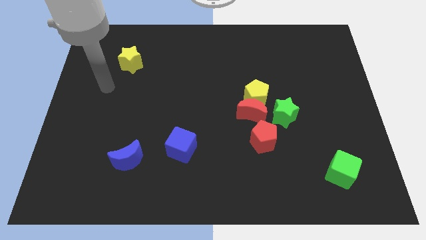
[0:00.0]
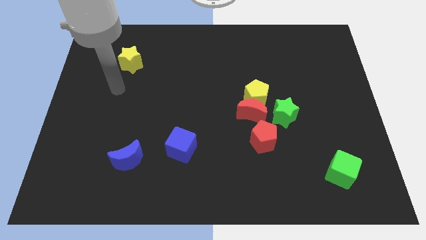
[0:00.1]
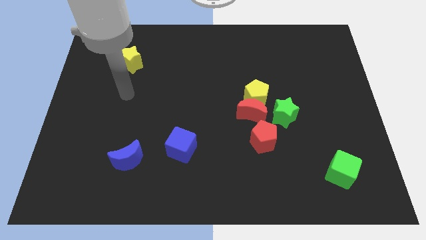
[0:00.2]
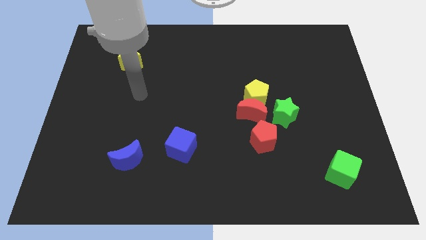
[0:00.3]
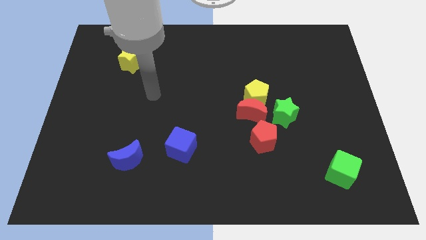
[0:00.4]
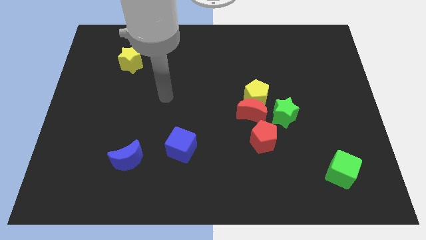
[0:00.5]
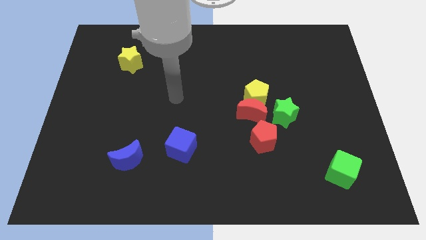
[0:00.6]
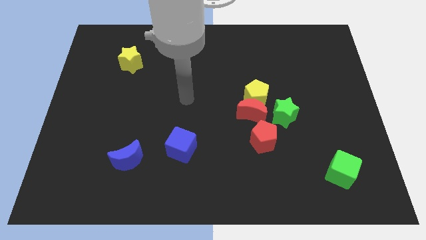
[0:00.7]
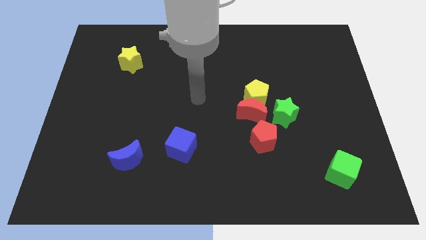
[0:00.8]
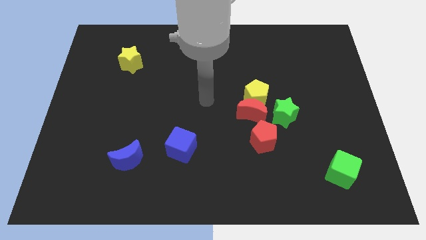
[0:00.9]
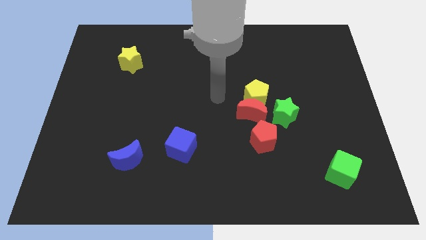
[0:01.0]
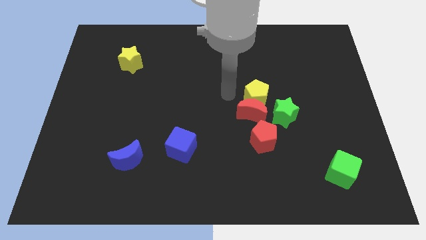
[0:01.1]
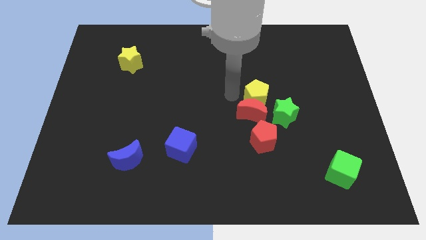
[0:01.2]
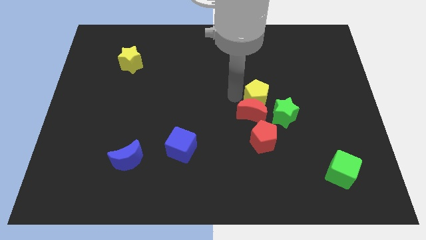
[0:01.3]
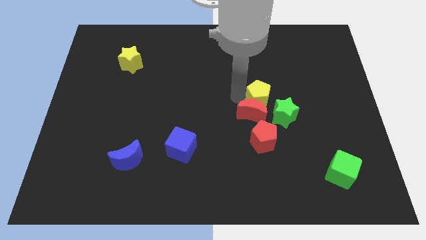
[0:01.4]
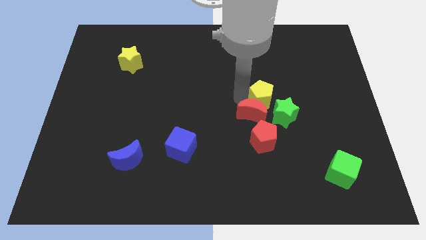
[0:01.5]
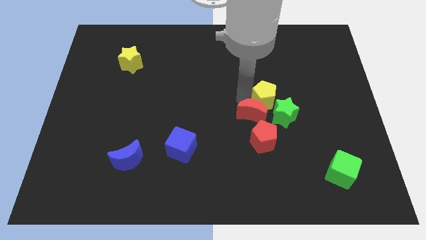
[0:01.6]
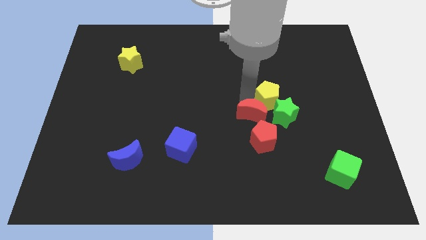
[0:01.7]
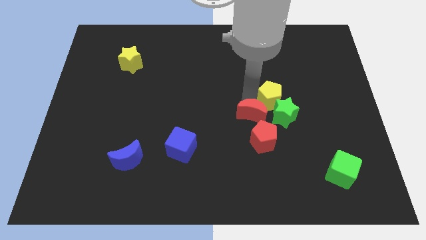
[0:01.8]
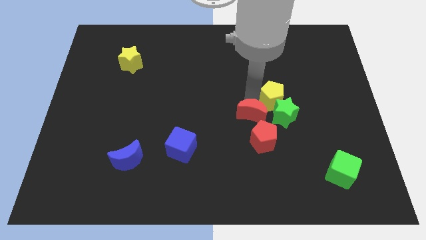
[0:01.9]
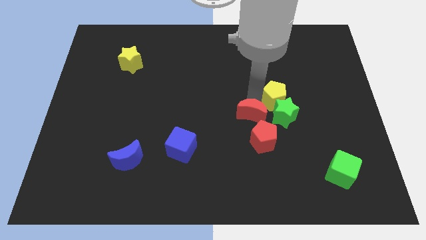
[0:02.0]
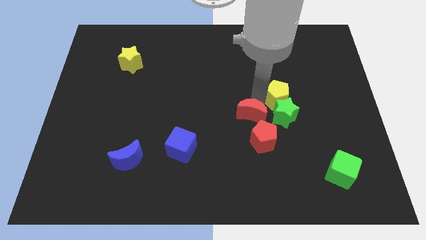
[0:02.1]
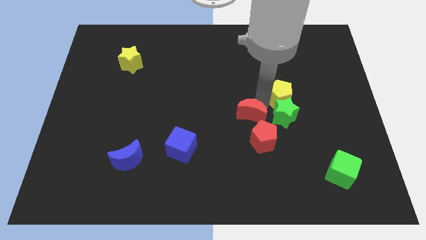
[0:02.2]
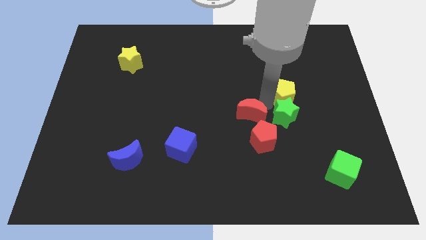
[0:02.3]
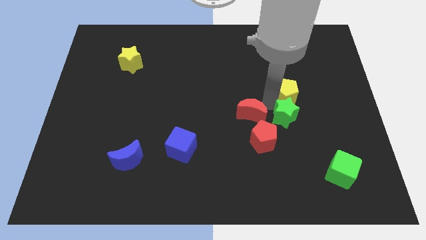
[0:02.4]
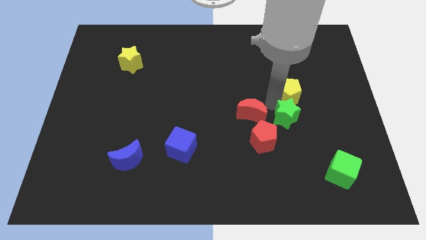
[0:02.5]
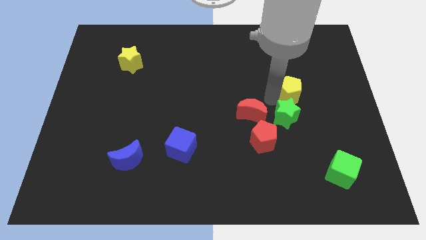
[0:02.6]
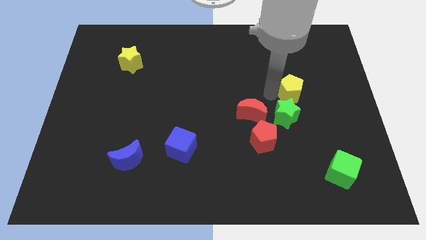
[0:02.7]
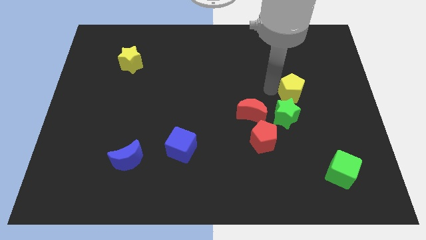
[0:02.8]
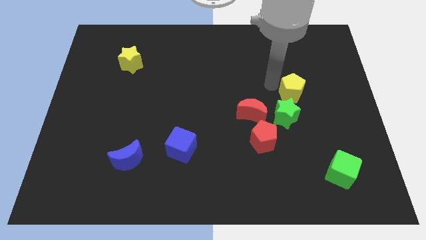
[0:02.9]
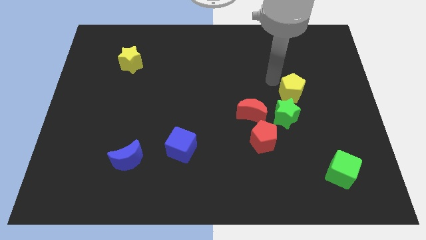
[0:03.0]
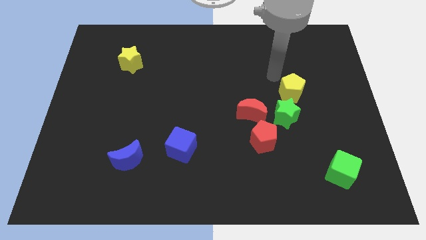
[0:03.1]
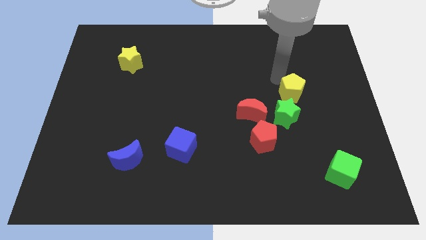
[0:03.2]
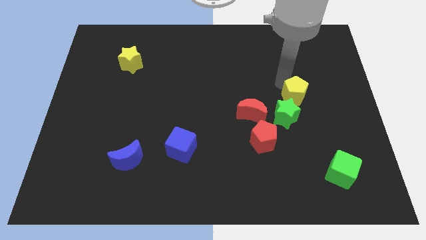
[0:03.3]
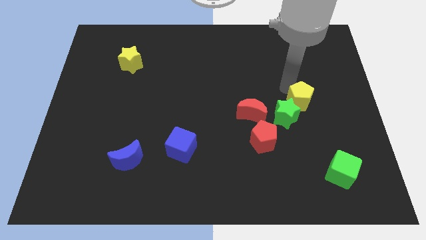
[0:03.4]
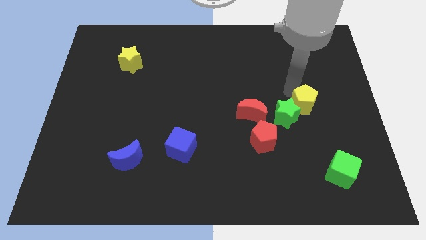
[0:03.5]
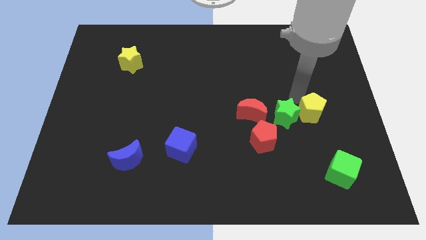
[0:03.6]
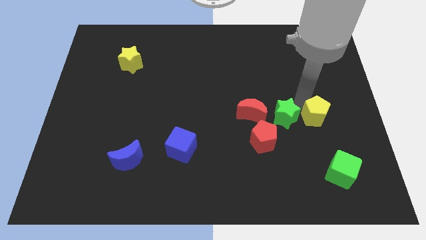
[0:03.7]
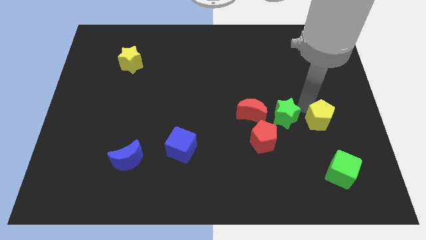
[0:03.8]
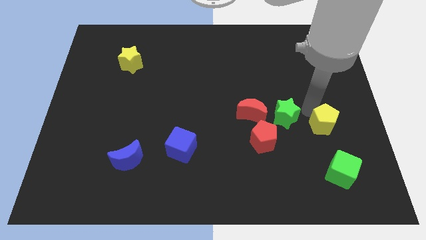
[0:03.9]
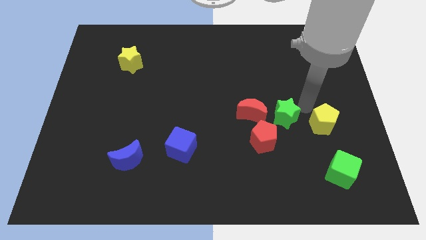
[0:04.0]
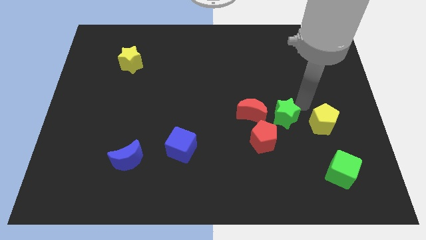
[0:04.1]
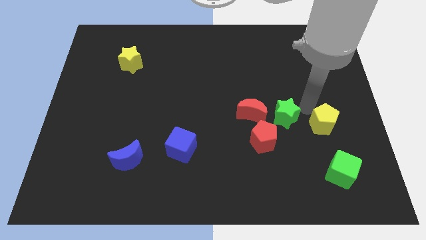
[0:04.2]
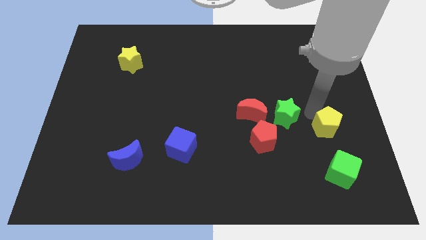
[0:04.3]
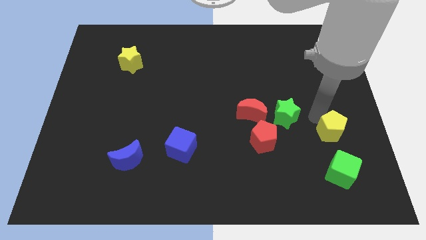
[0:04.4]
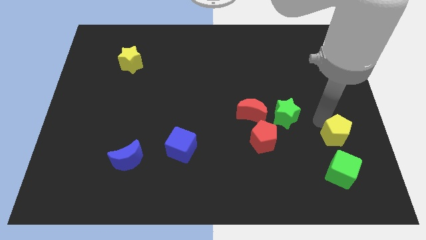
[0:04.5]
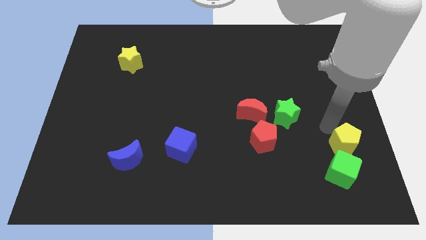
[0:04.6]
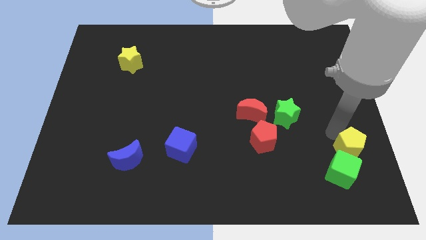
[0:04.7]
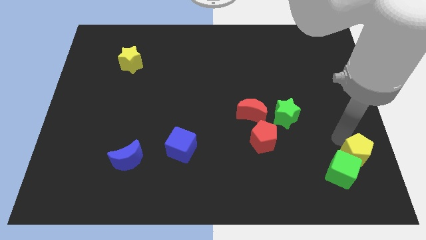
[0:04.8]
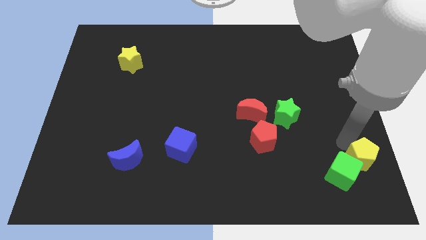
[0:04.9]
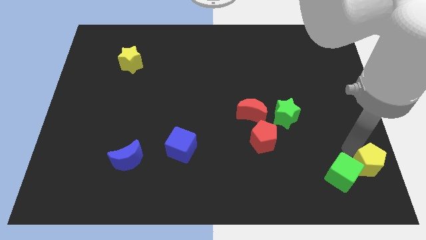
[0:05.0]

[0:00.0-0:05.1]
move the yellow pentagon to the bottom right

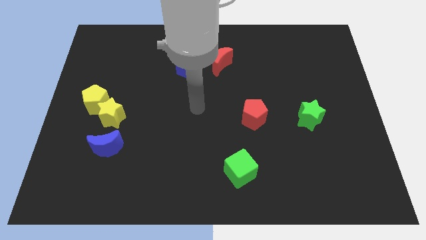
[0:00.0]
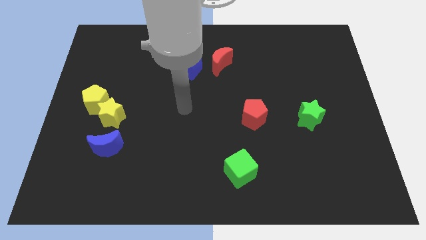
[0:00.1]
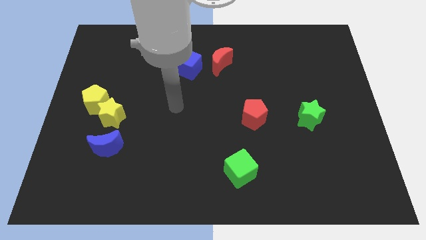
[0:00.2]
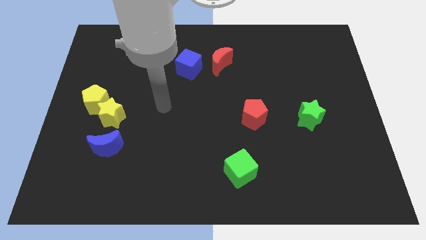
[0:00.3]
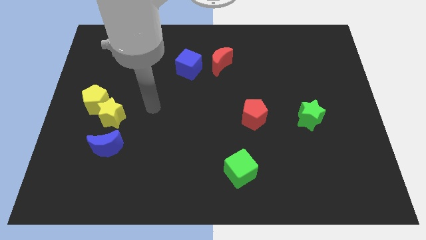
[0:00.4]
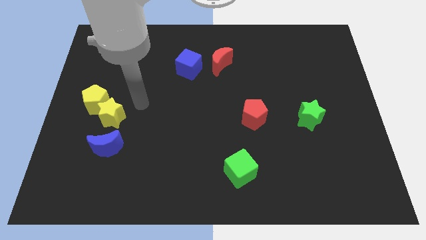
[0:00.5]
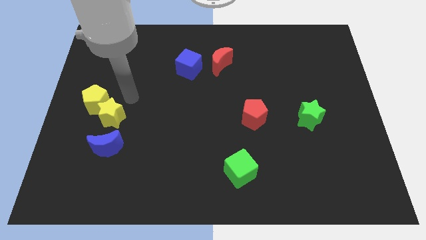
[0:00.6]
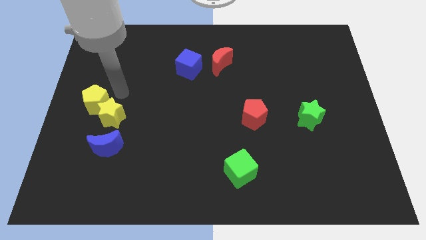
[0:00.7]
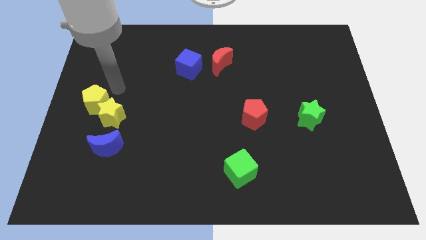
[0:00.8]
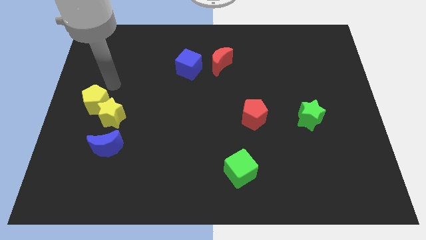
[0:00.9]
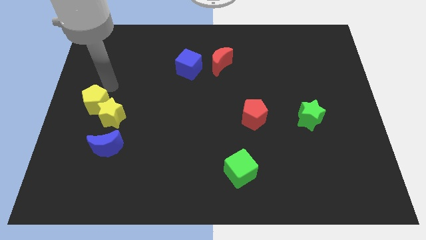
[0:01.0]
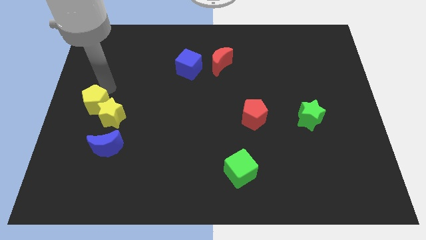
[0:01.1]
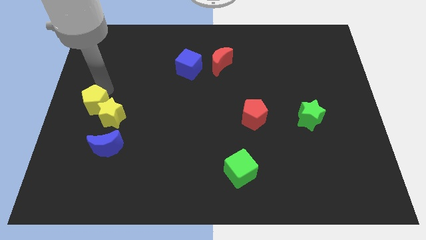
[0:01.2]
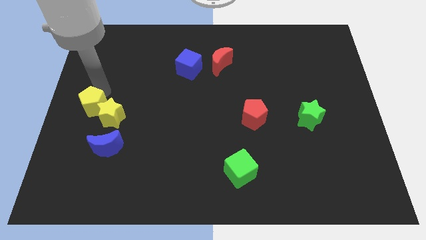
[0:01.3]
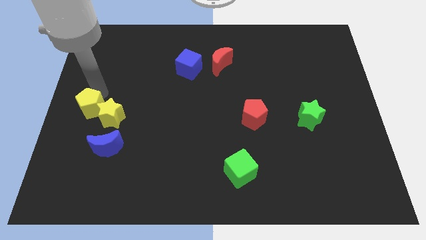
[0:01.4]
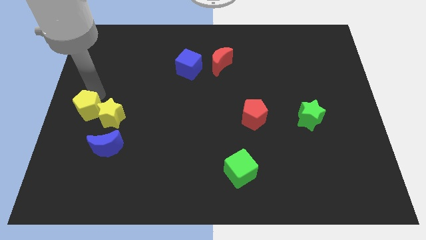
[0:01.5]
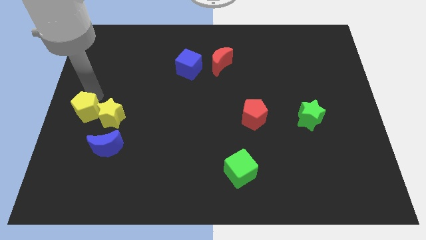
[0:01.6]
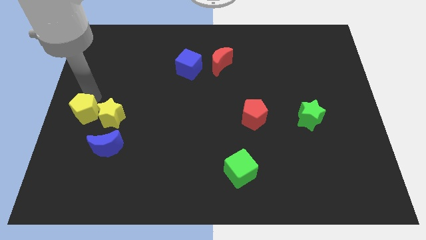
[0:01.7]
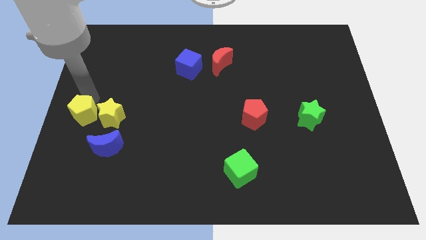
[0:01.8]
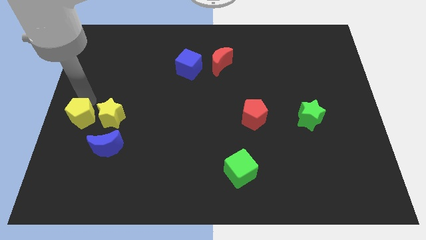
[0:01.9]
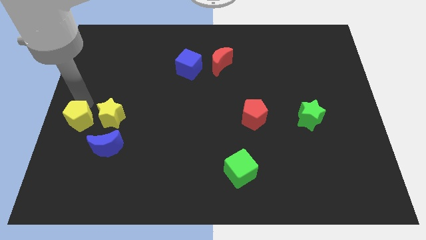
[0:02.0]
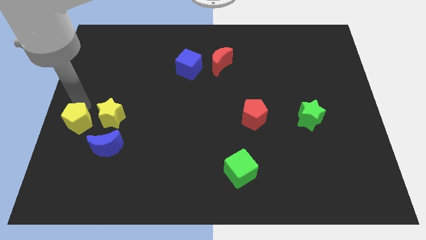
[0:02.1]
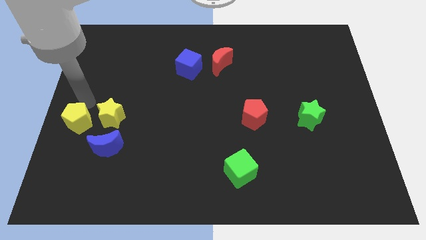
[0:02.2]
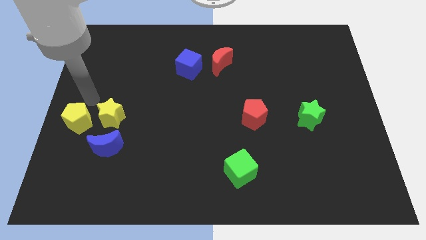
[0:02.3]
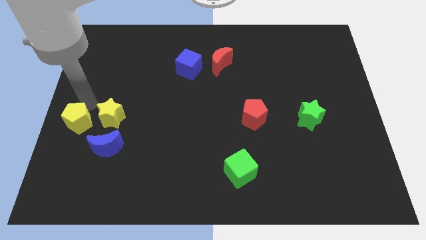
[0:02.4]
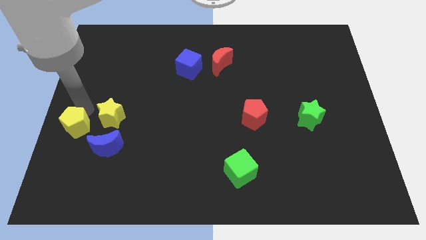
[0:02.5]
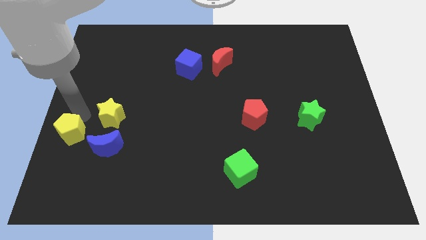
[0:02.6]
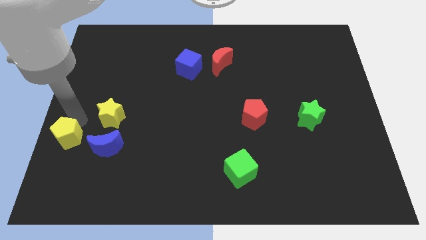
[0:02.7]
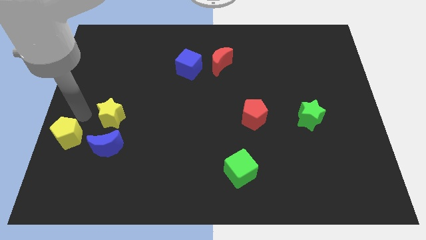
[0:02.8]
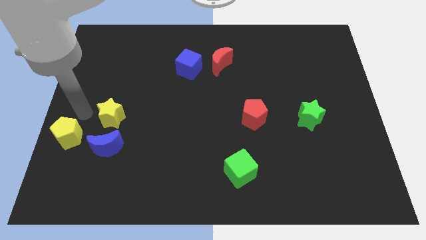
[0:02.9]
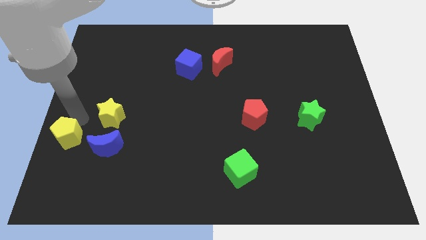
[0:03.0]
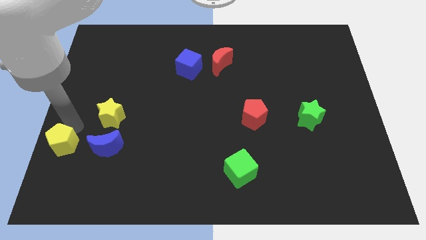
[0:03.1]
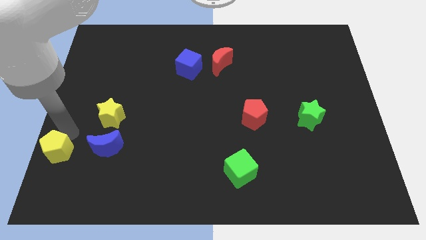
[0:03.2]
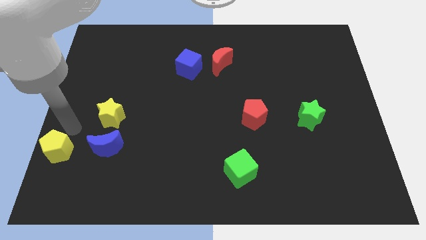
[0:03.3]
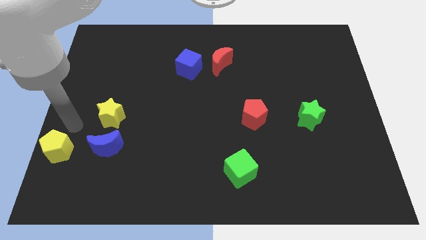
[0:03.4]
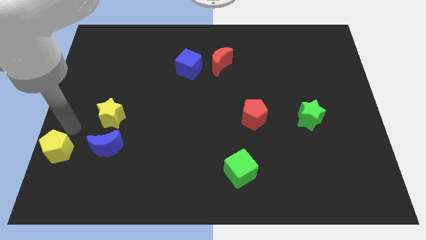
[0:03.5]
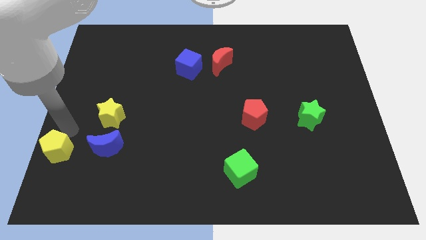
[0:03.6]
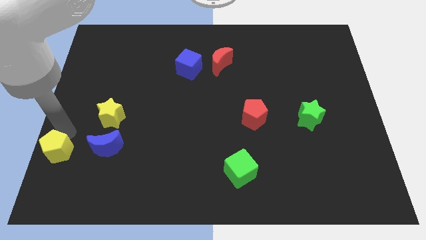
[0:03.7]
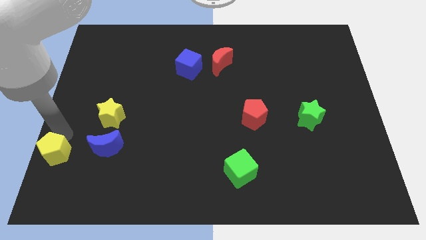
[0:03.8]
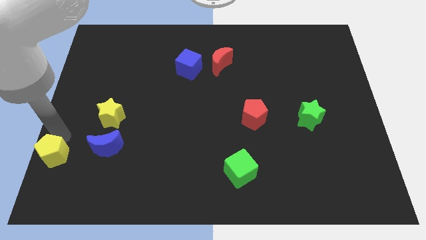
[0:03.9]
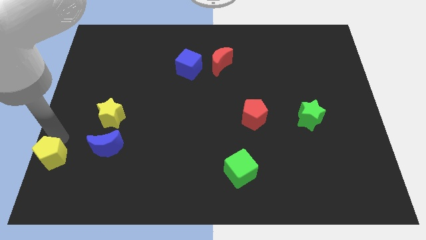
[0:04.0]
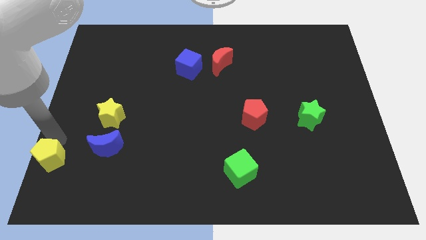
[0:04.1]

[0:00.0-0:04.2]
push the yellow pentagon to the bottom left of the board
